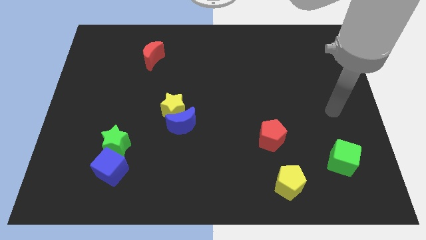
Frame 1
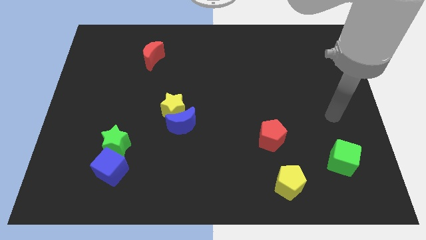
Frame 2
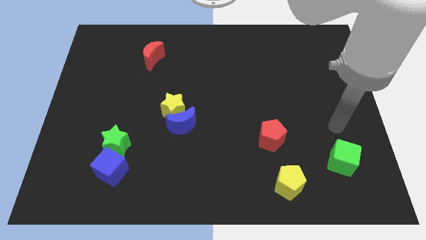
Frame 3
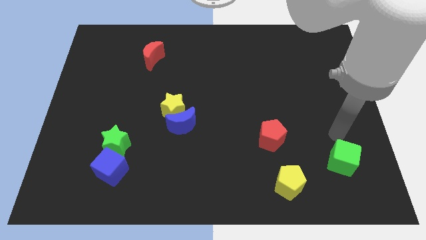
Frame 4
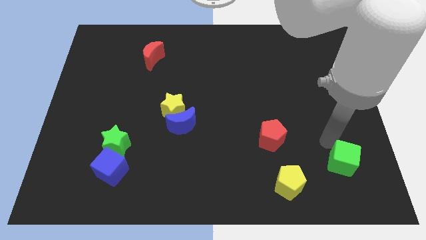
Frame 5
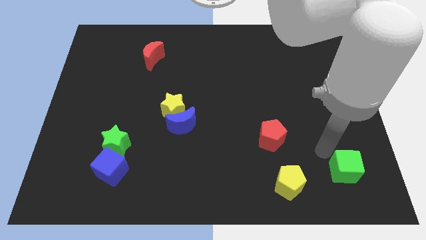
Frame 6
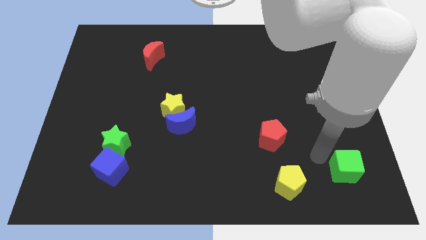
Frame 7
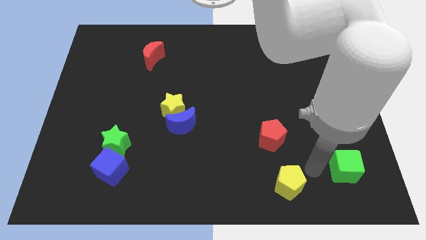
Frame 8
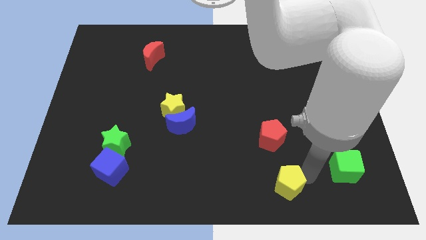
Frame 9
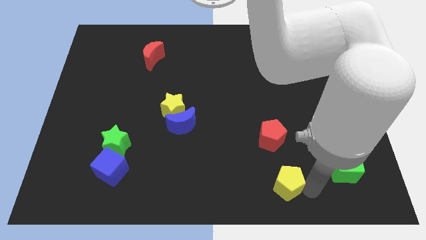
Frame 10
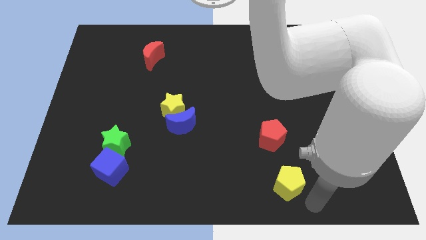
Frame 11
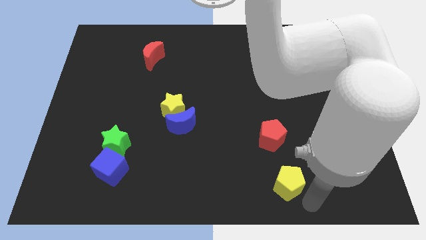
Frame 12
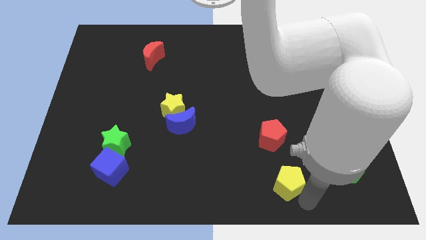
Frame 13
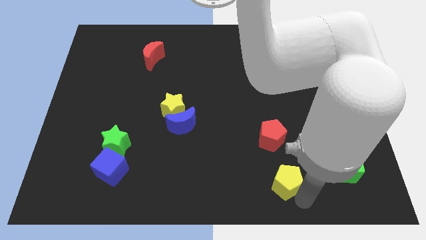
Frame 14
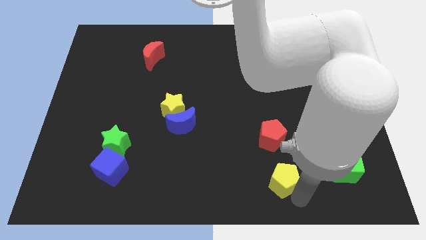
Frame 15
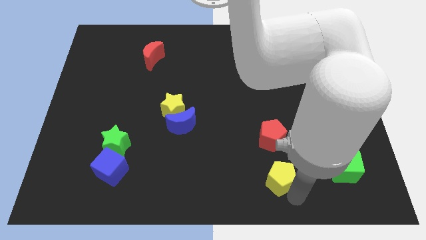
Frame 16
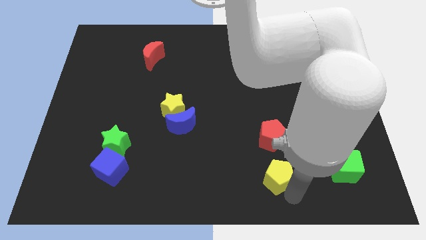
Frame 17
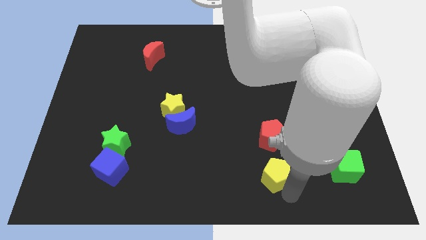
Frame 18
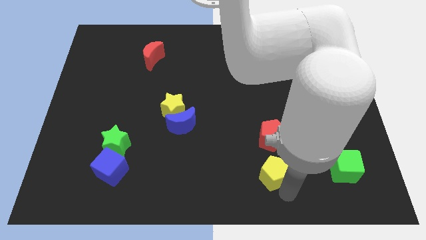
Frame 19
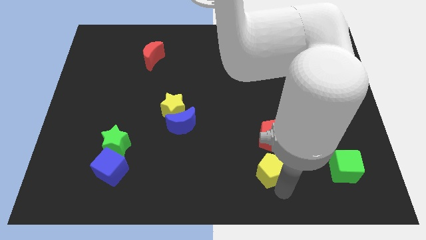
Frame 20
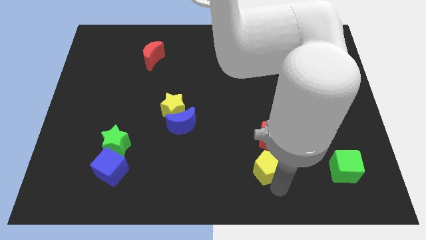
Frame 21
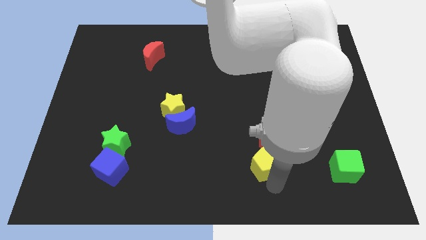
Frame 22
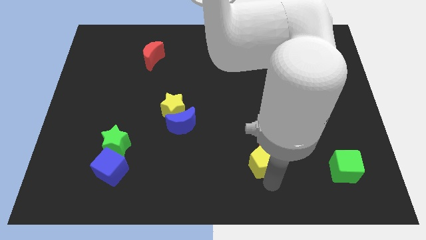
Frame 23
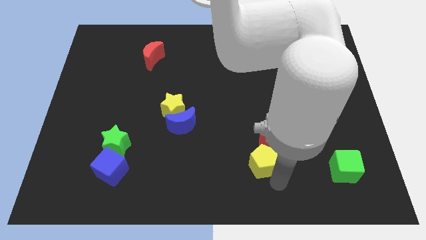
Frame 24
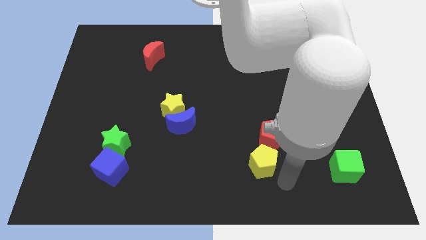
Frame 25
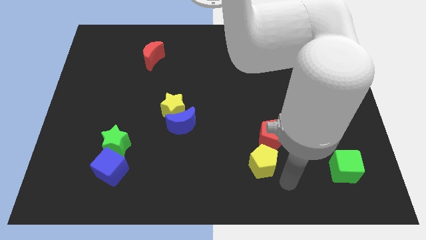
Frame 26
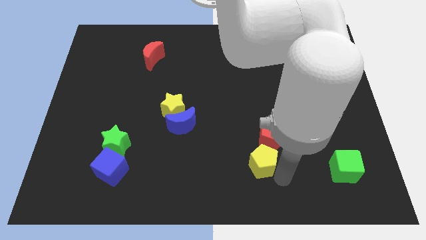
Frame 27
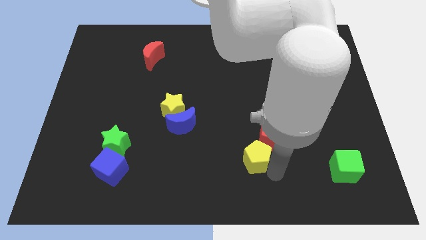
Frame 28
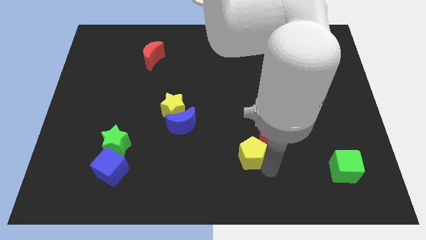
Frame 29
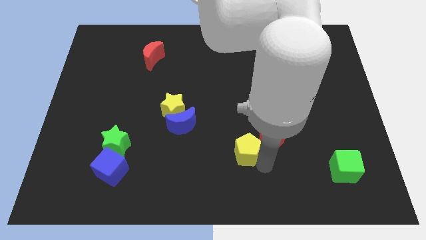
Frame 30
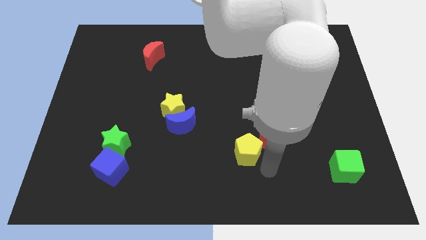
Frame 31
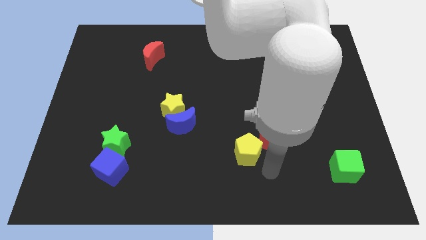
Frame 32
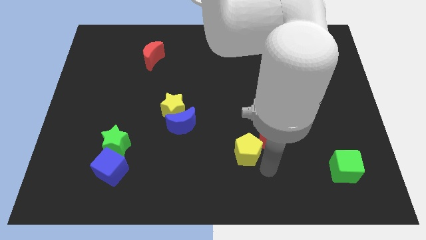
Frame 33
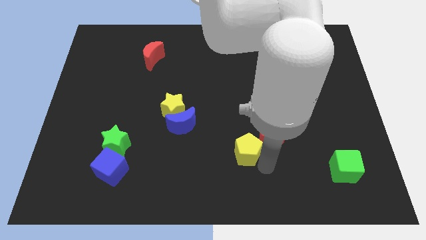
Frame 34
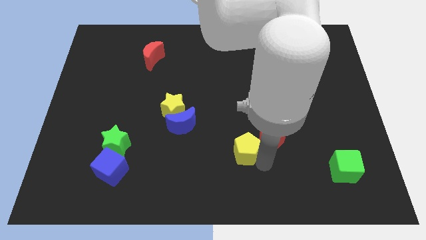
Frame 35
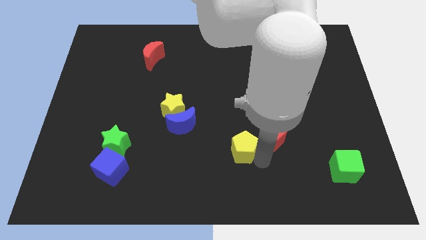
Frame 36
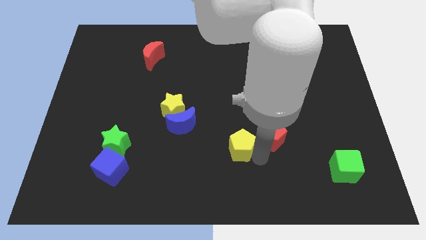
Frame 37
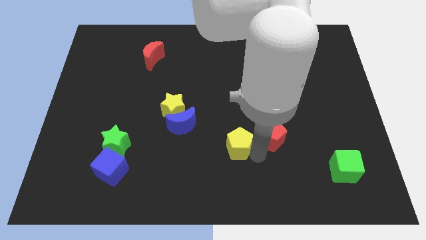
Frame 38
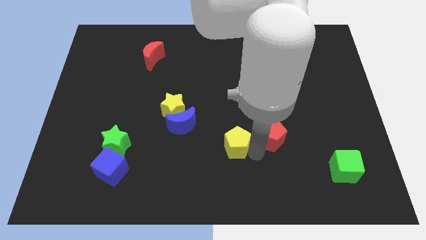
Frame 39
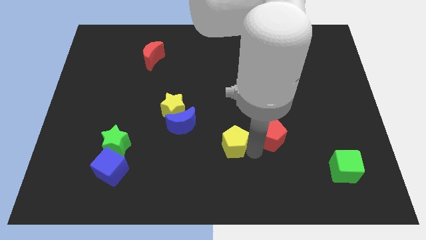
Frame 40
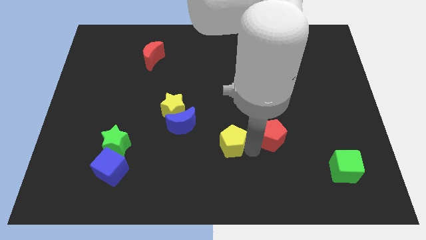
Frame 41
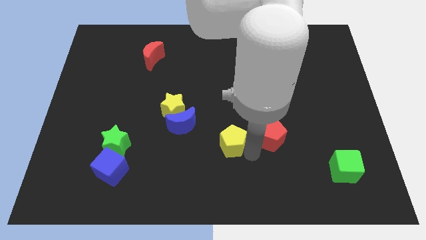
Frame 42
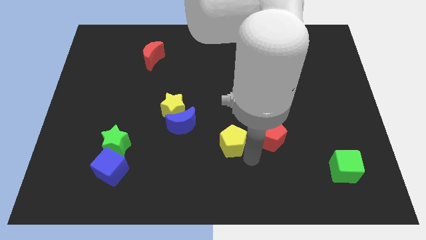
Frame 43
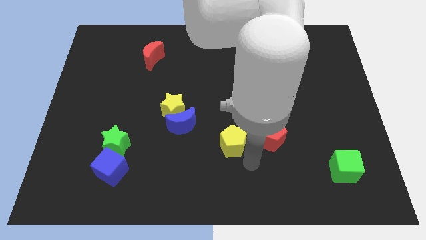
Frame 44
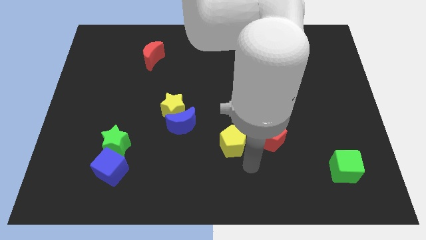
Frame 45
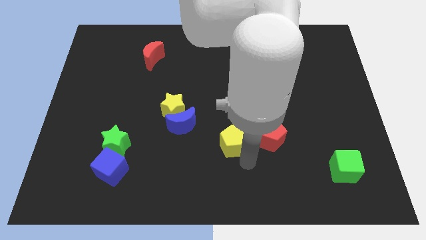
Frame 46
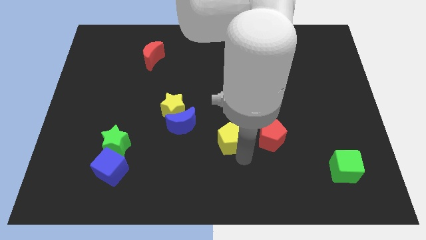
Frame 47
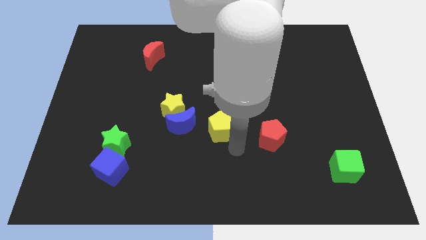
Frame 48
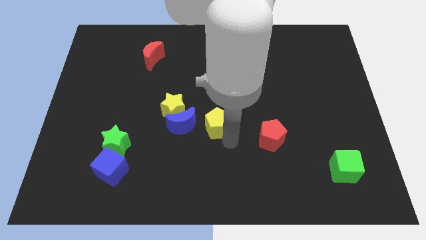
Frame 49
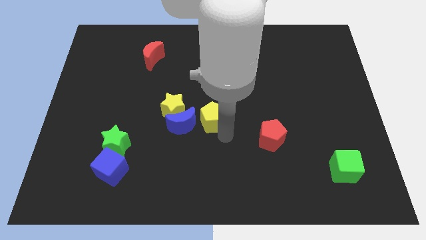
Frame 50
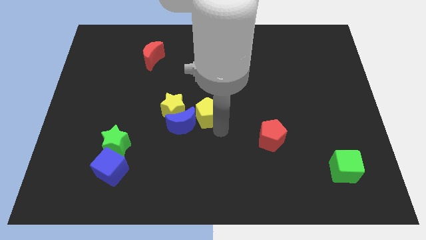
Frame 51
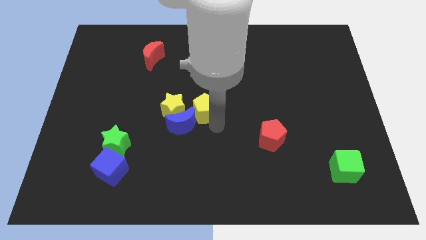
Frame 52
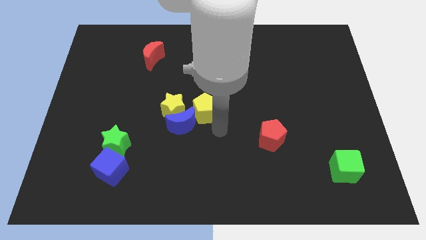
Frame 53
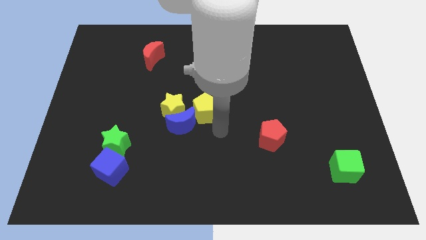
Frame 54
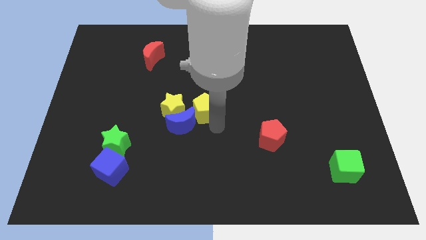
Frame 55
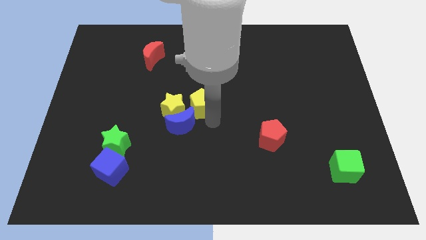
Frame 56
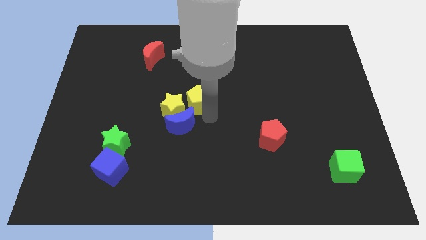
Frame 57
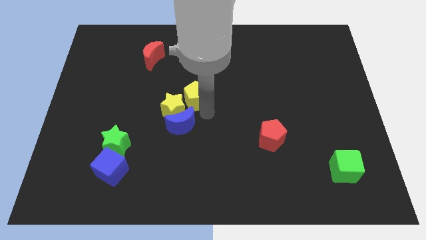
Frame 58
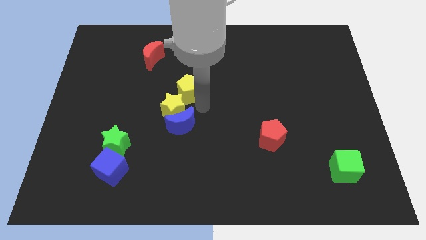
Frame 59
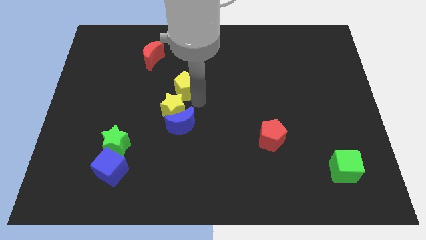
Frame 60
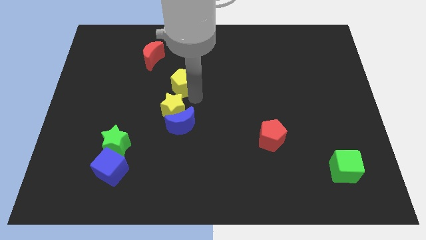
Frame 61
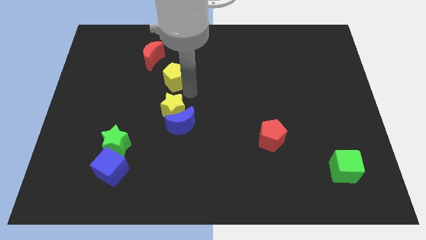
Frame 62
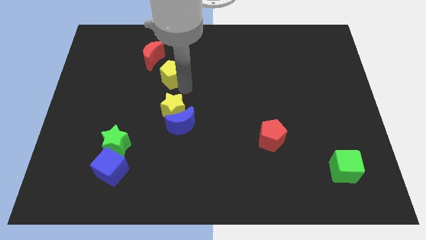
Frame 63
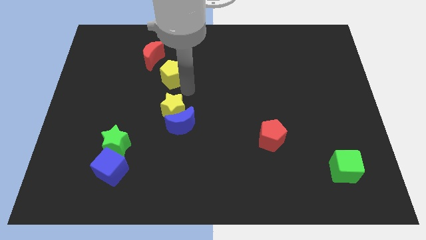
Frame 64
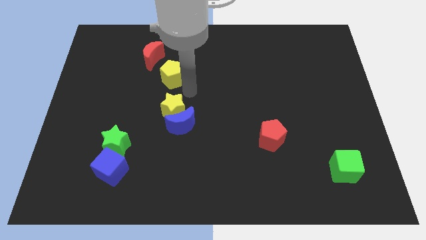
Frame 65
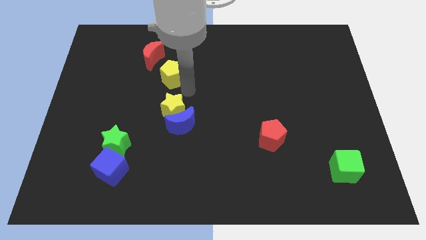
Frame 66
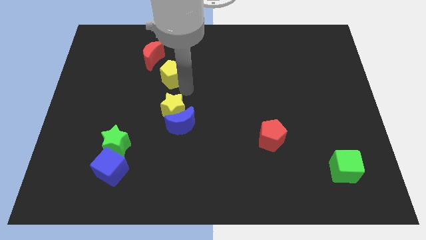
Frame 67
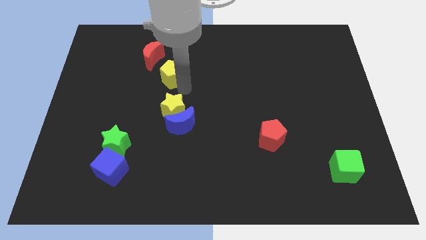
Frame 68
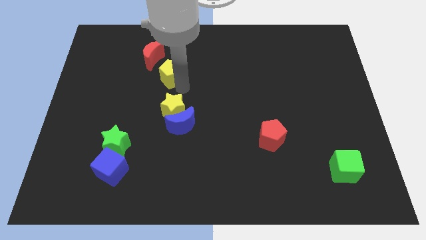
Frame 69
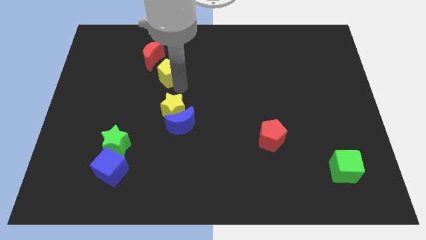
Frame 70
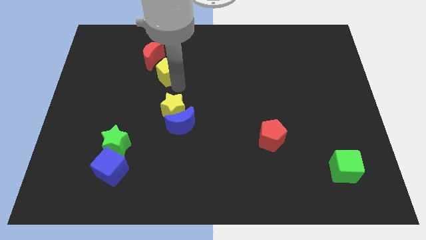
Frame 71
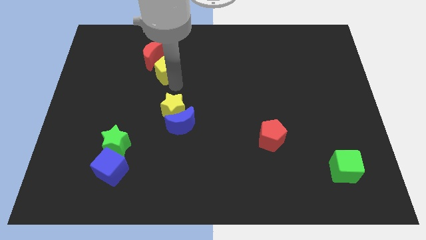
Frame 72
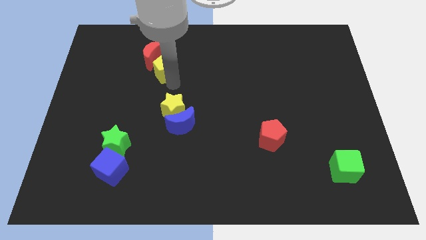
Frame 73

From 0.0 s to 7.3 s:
put the yellow pentagon next to the red moon

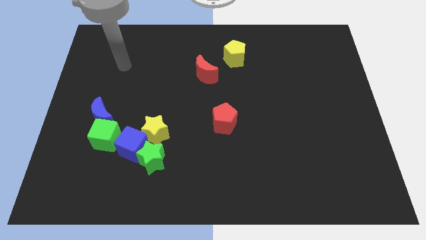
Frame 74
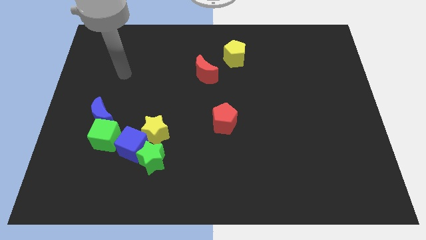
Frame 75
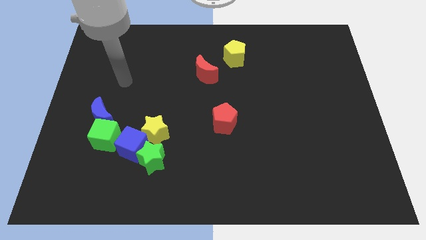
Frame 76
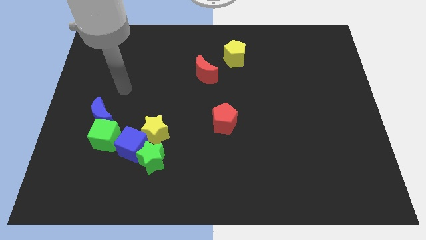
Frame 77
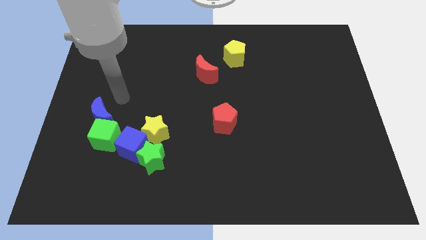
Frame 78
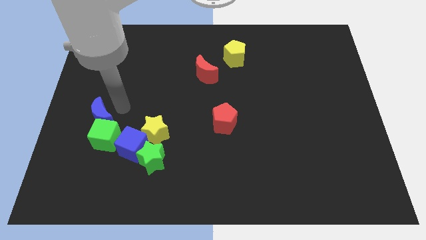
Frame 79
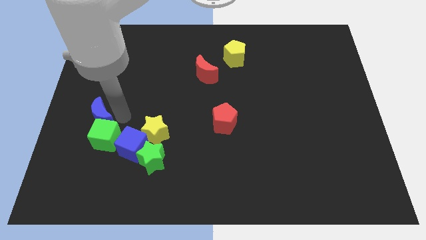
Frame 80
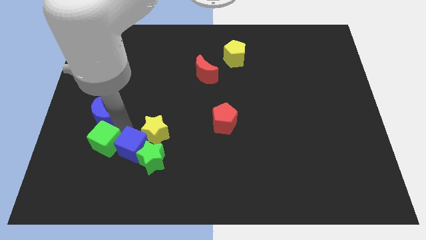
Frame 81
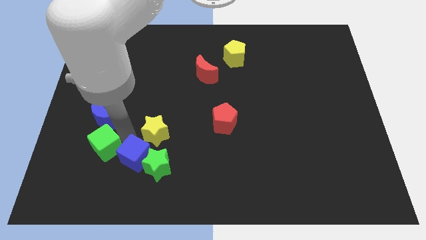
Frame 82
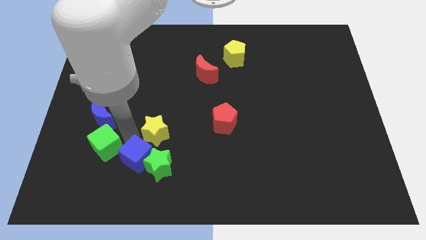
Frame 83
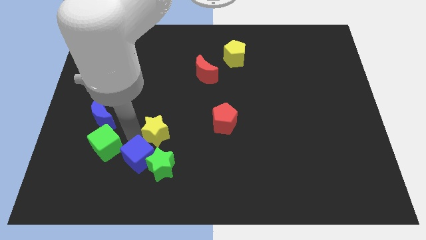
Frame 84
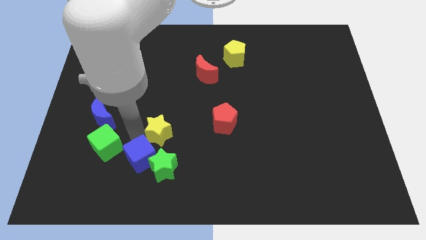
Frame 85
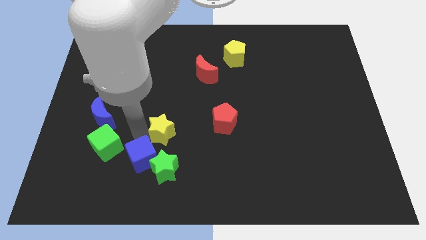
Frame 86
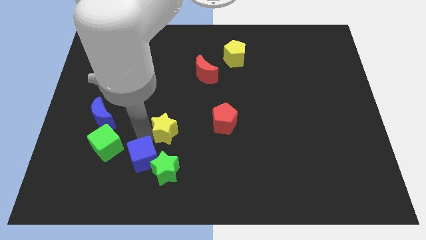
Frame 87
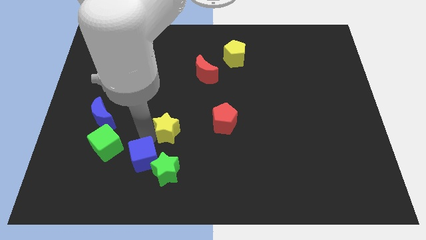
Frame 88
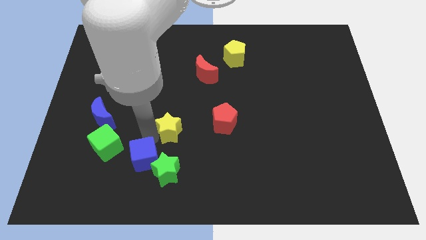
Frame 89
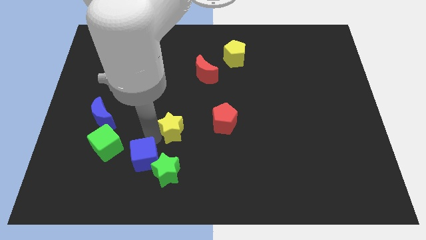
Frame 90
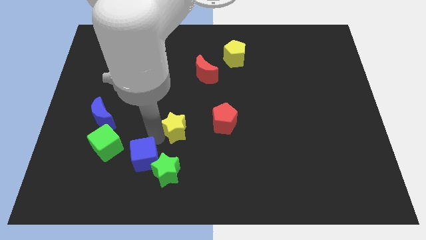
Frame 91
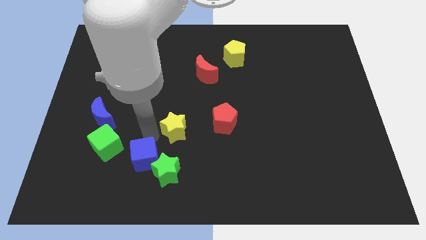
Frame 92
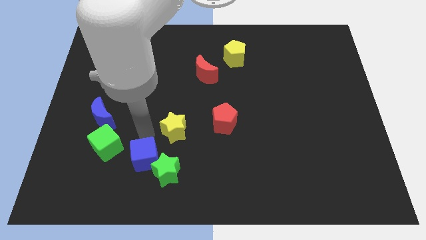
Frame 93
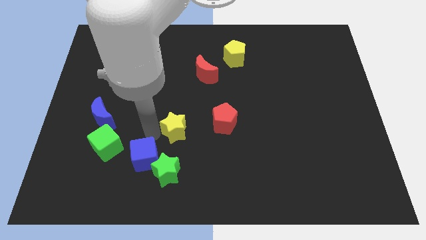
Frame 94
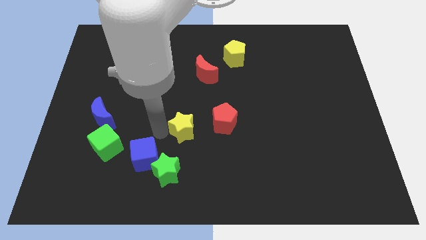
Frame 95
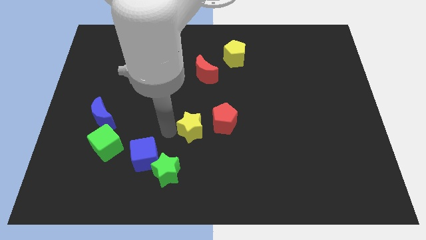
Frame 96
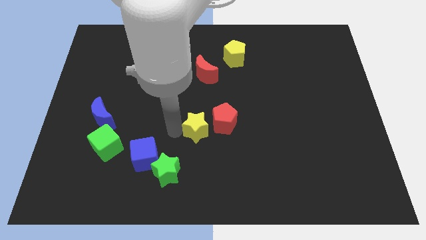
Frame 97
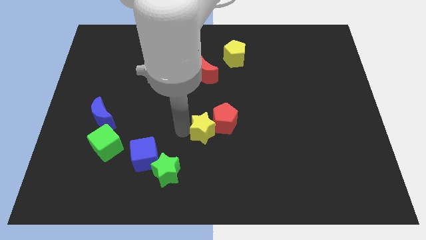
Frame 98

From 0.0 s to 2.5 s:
push the yellow star next to the red pentagon
